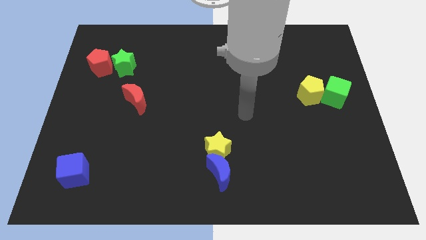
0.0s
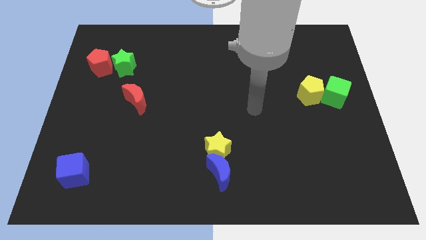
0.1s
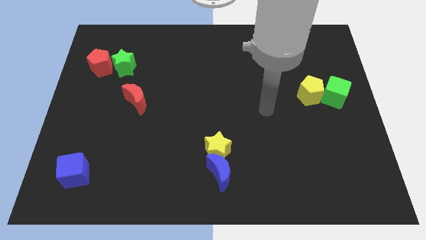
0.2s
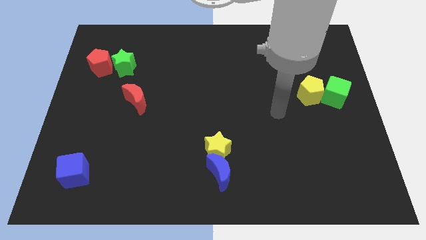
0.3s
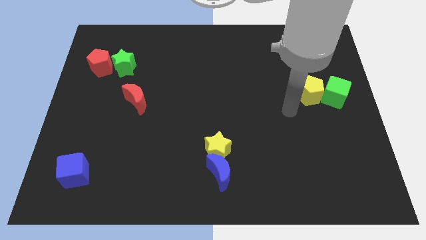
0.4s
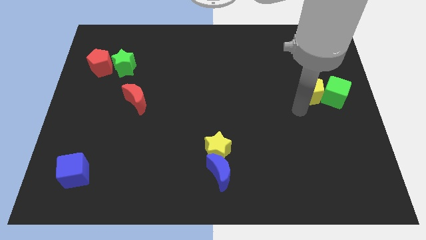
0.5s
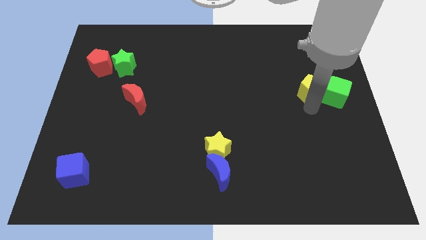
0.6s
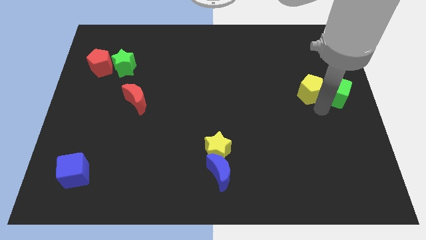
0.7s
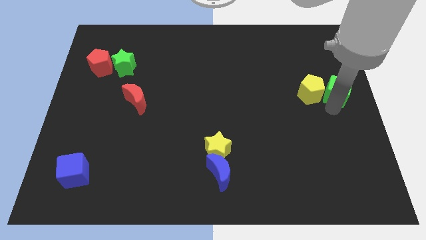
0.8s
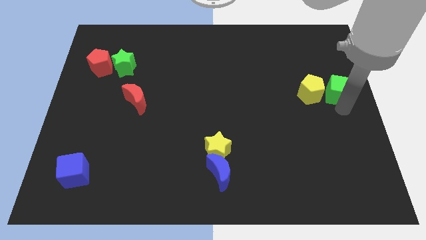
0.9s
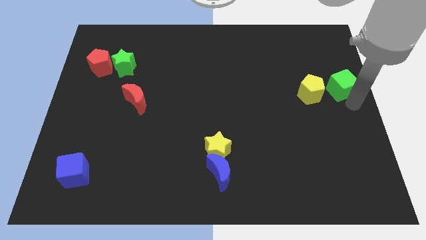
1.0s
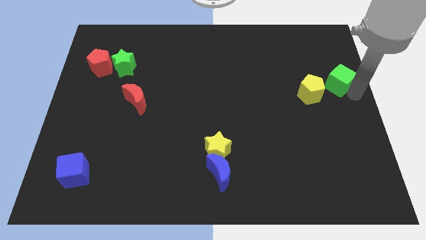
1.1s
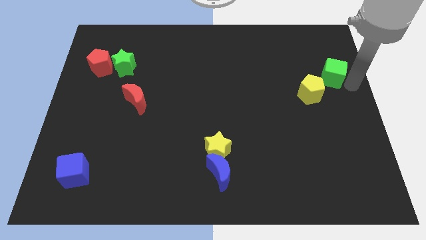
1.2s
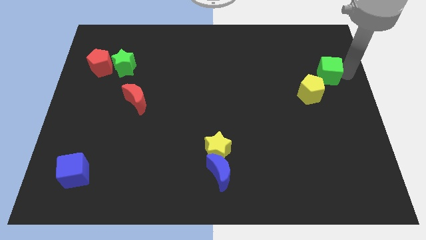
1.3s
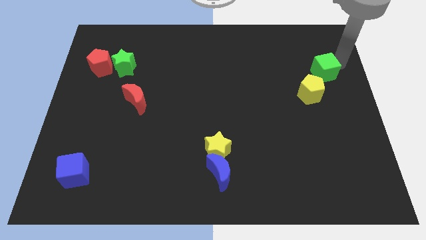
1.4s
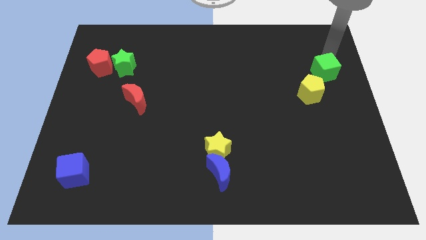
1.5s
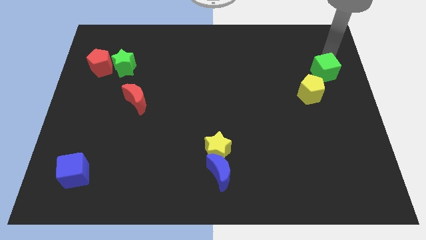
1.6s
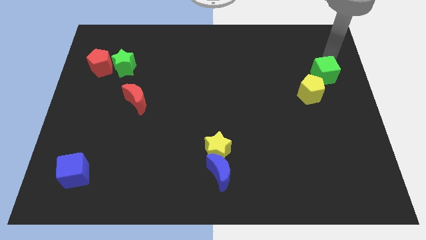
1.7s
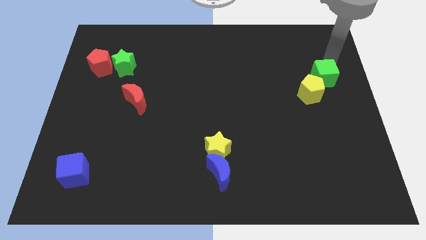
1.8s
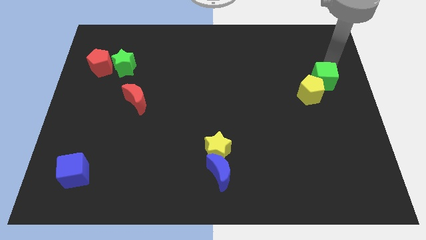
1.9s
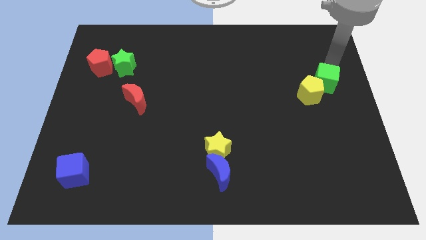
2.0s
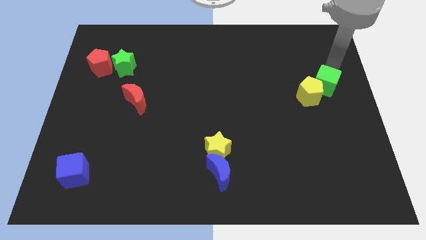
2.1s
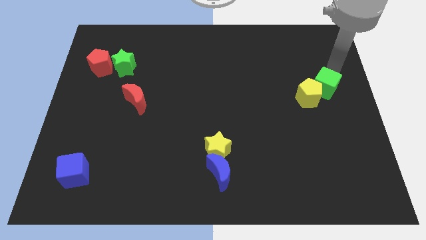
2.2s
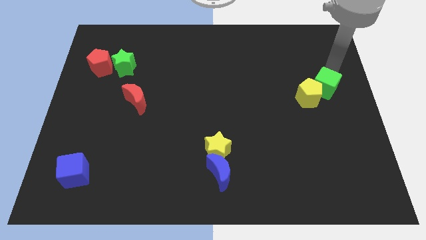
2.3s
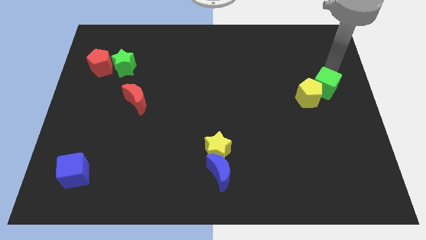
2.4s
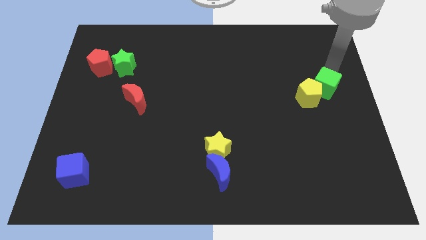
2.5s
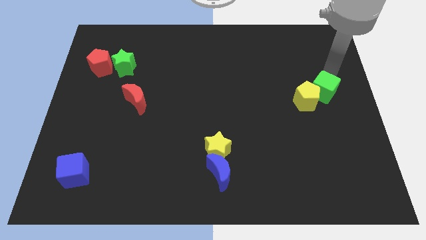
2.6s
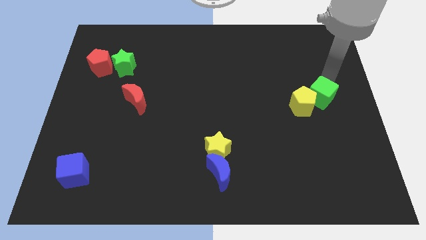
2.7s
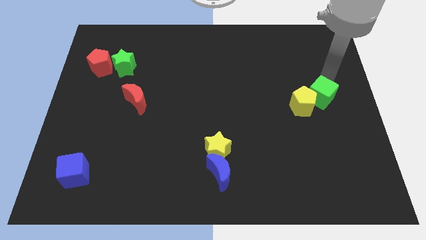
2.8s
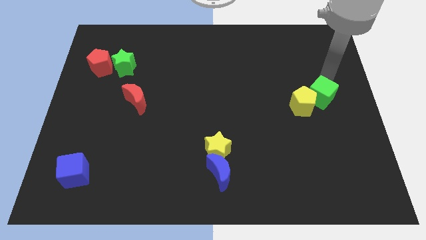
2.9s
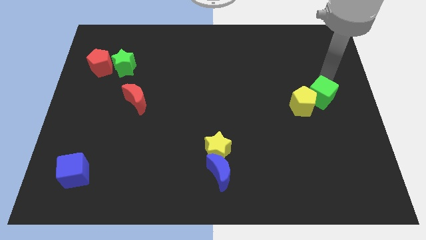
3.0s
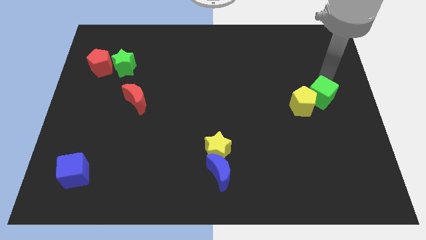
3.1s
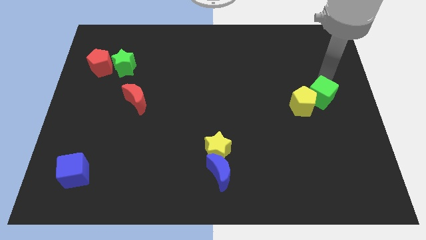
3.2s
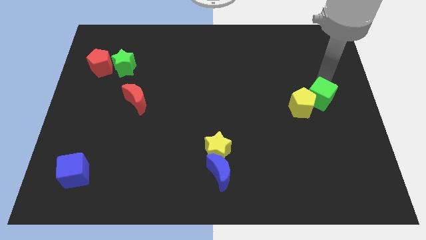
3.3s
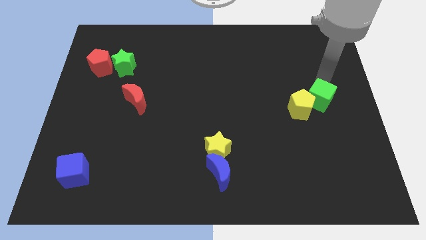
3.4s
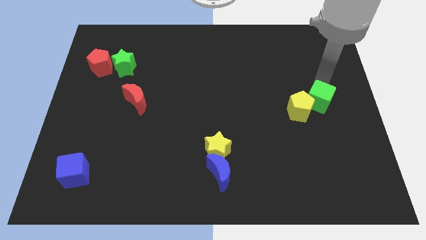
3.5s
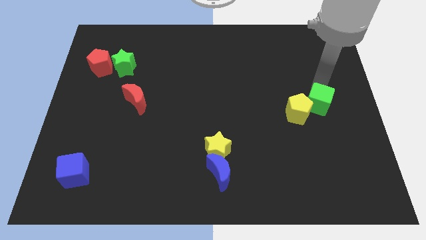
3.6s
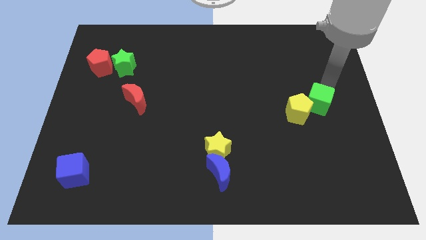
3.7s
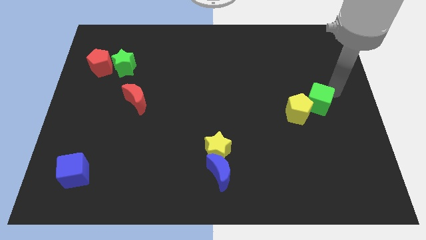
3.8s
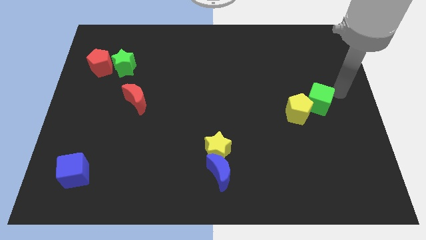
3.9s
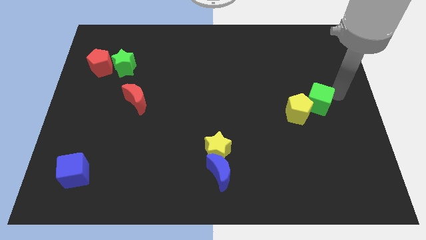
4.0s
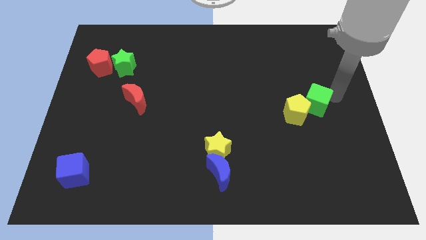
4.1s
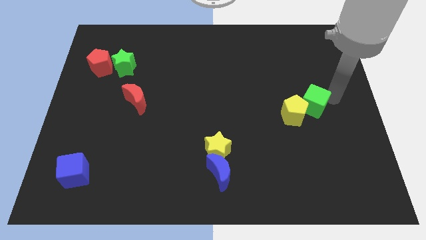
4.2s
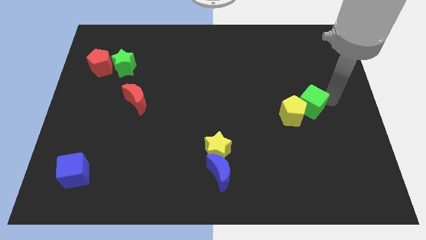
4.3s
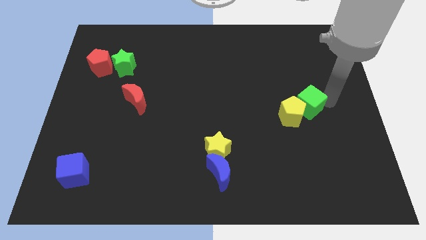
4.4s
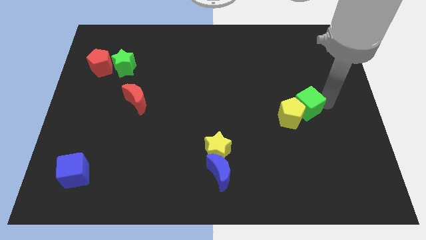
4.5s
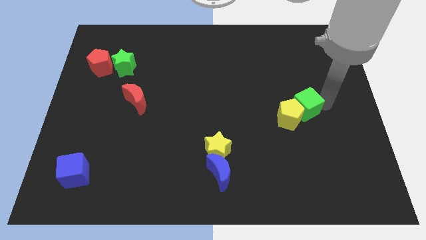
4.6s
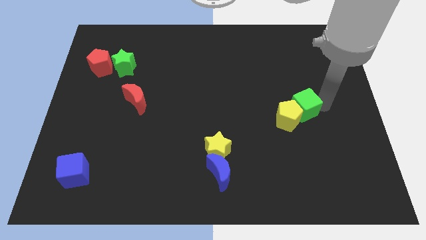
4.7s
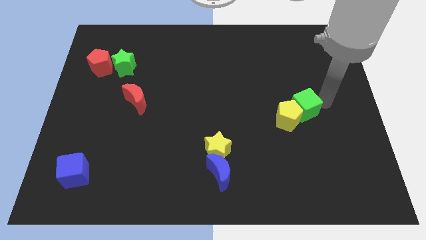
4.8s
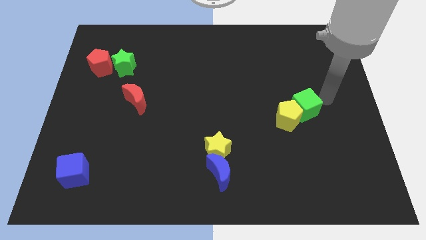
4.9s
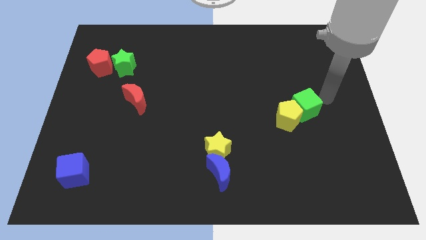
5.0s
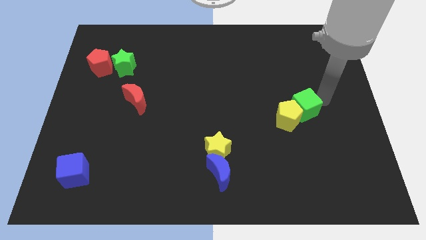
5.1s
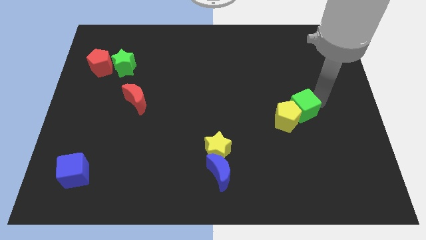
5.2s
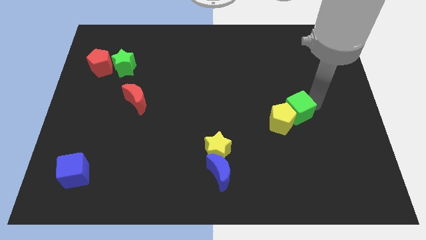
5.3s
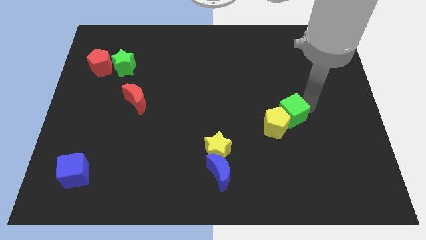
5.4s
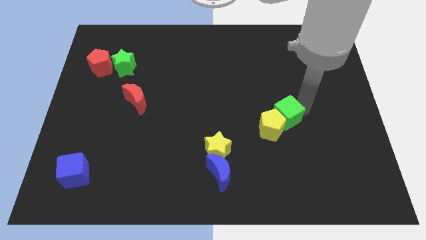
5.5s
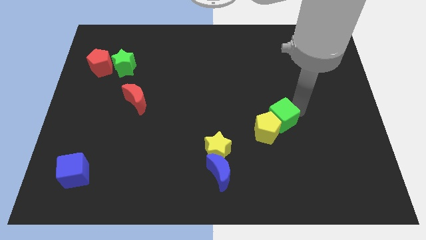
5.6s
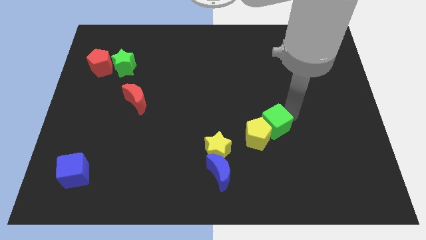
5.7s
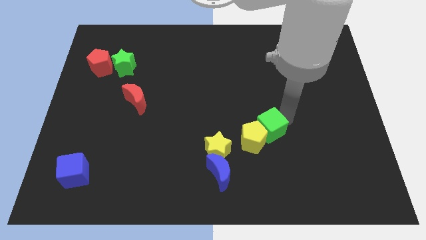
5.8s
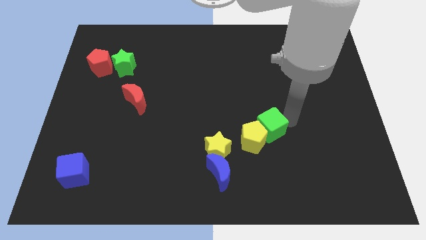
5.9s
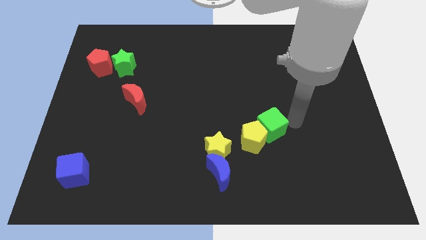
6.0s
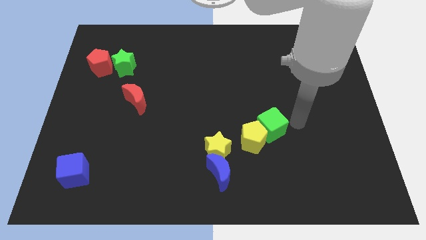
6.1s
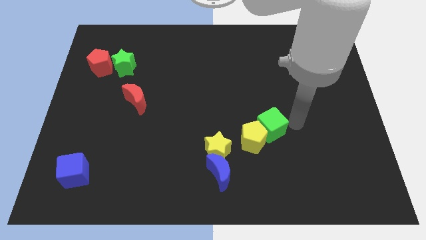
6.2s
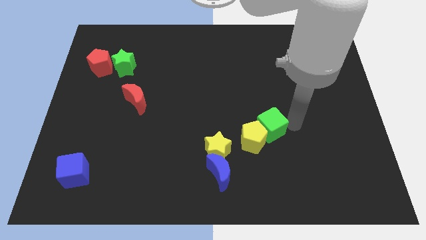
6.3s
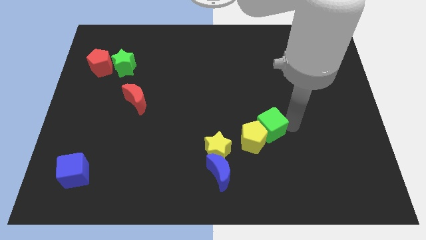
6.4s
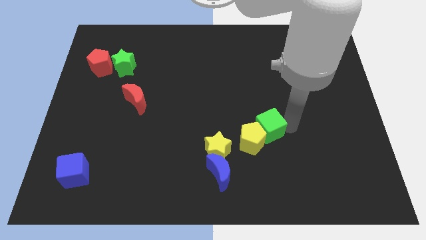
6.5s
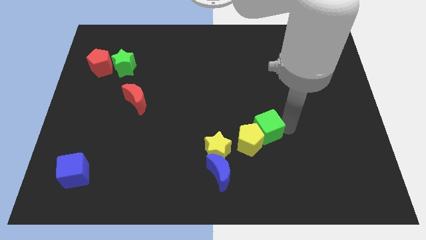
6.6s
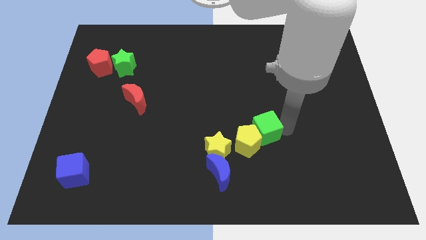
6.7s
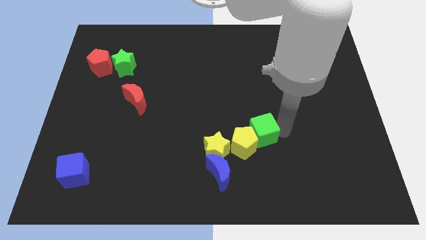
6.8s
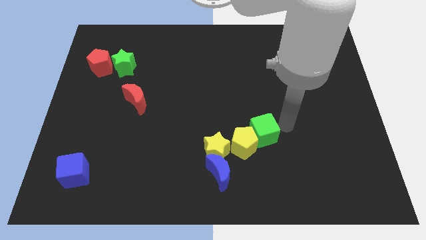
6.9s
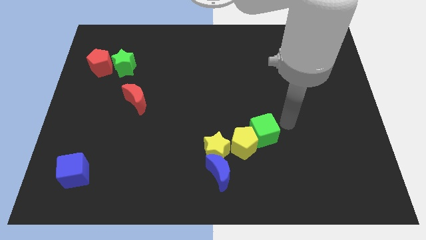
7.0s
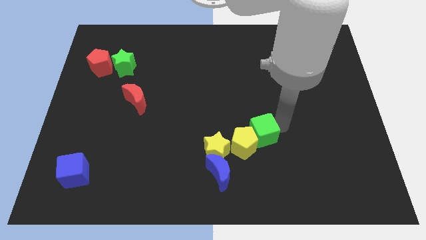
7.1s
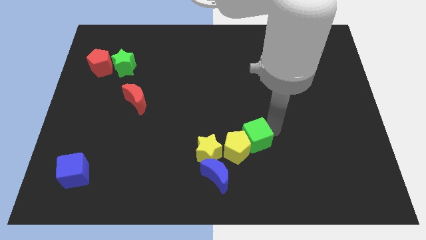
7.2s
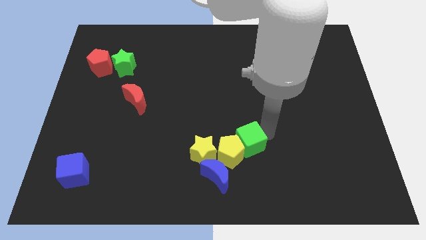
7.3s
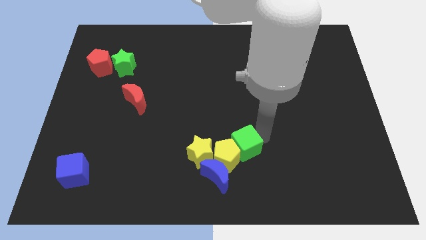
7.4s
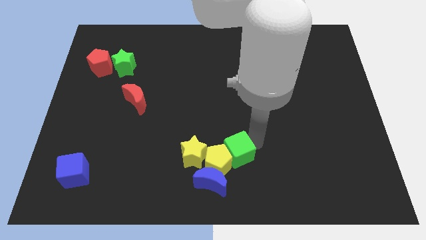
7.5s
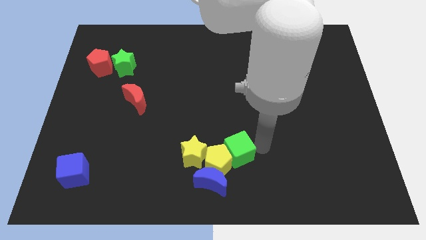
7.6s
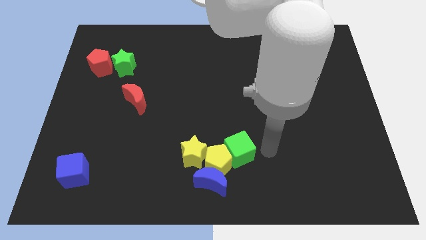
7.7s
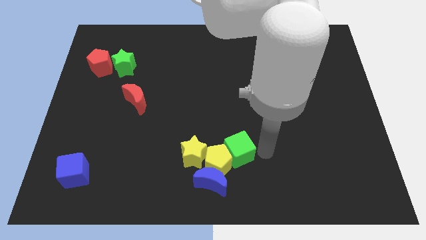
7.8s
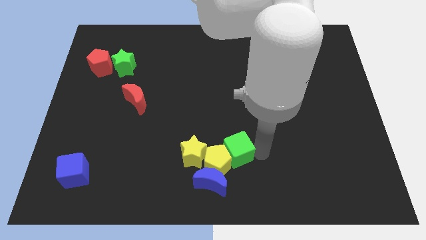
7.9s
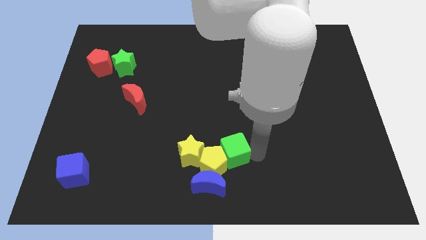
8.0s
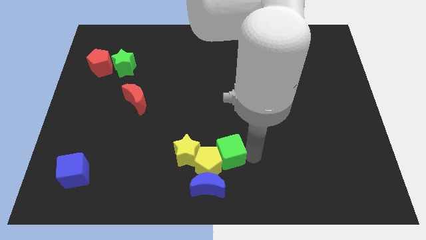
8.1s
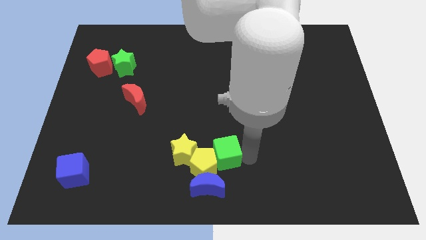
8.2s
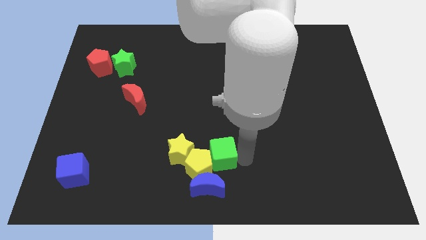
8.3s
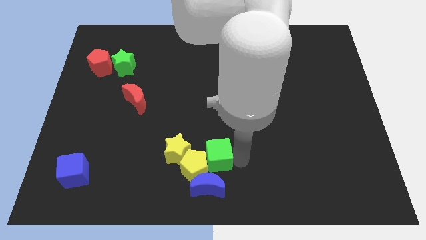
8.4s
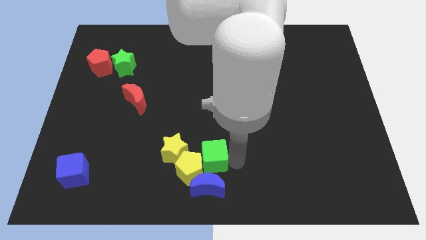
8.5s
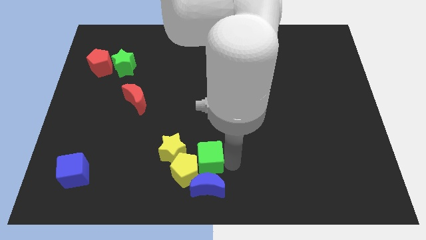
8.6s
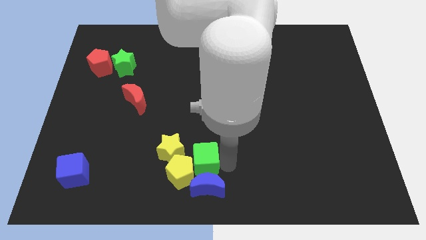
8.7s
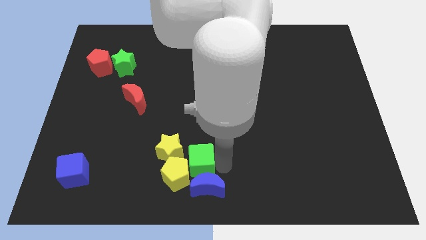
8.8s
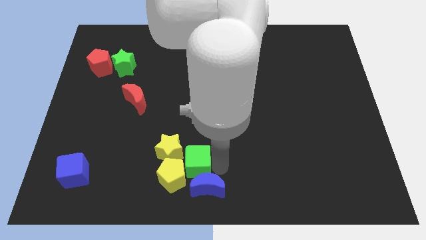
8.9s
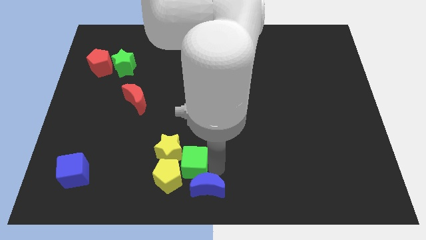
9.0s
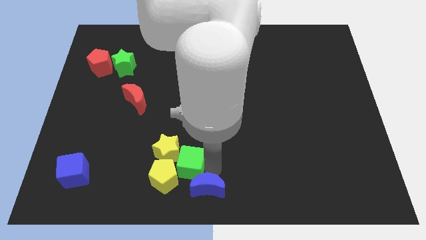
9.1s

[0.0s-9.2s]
push the green cube to the yellow star
